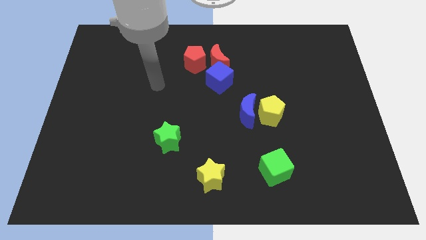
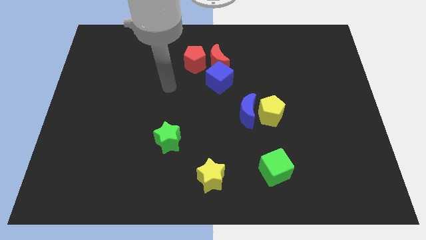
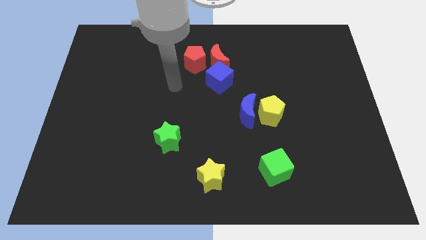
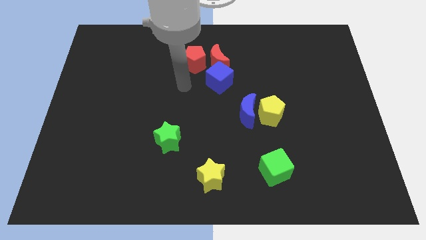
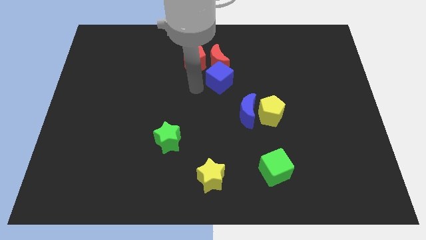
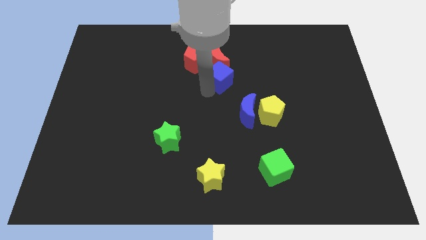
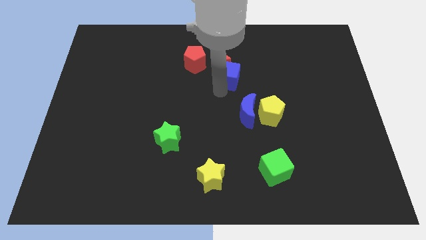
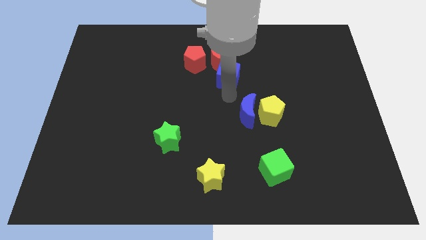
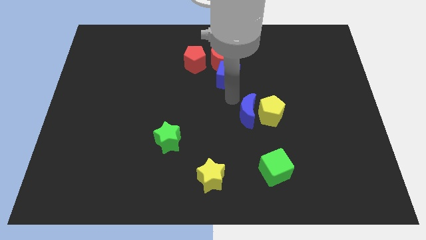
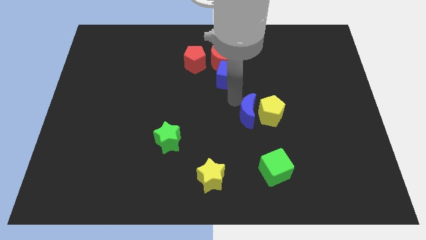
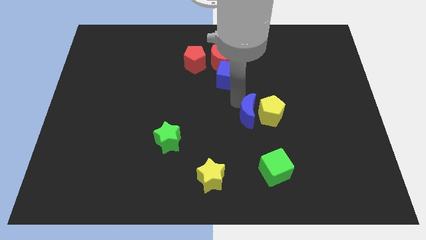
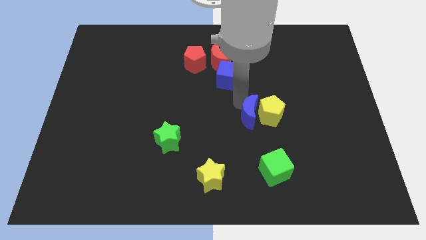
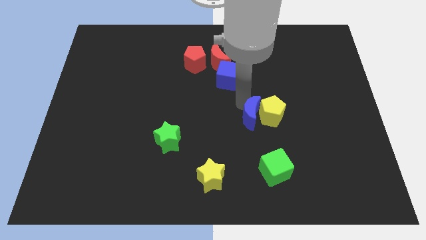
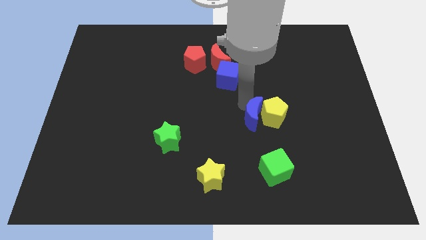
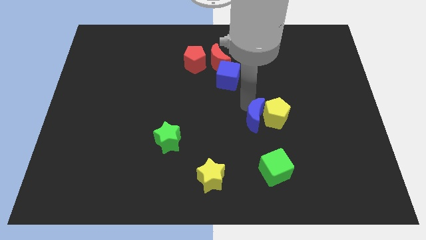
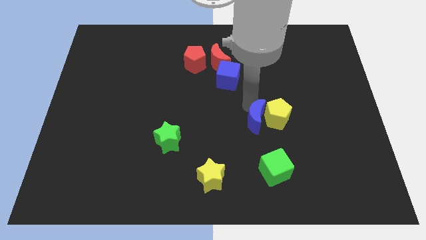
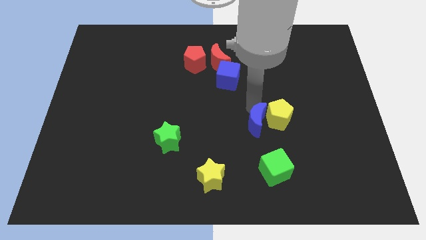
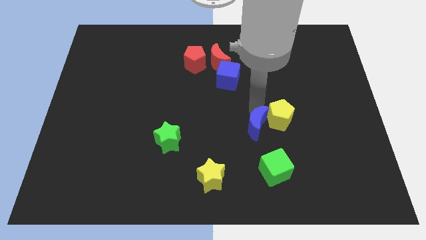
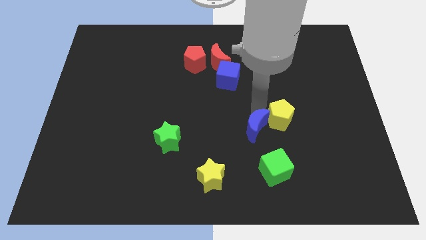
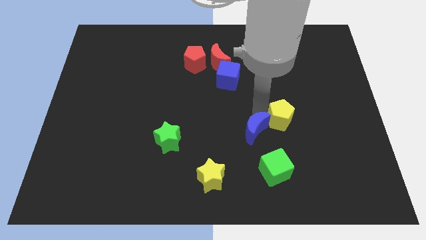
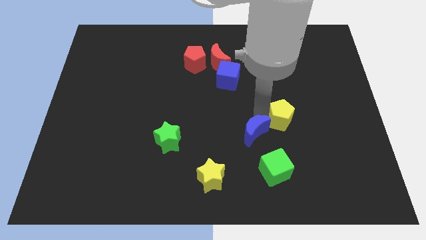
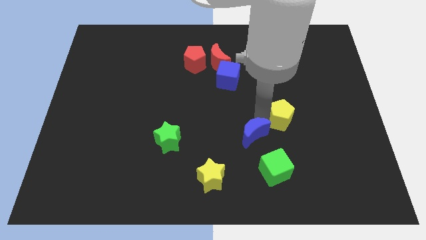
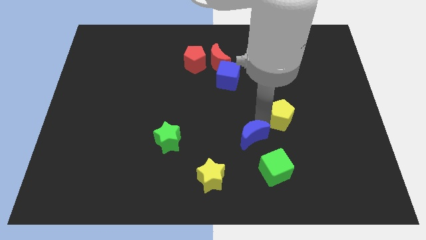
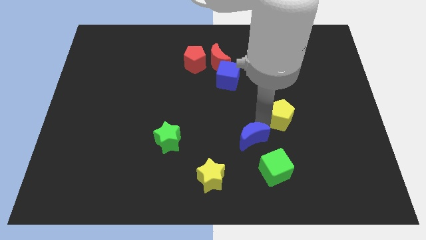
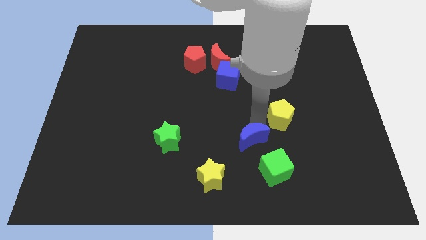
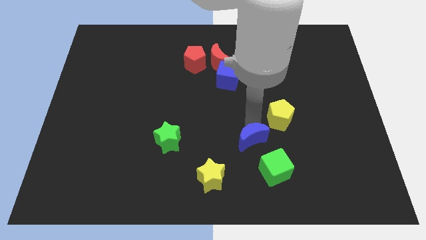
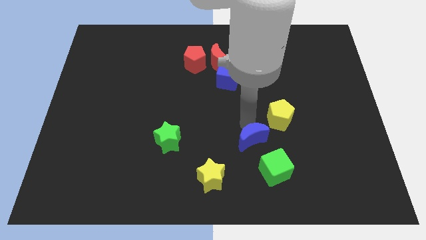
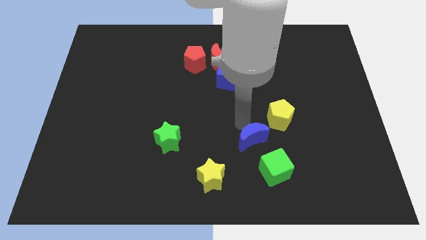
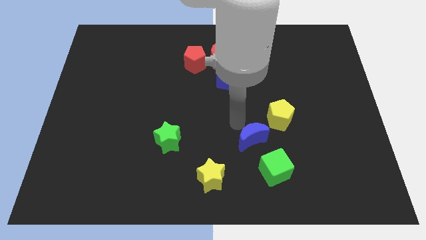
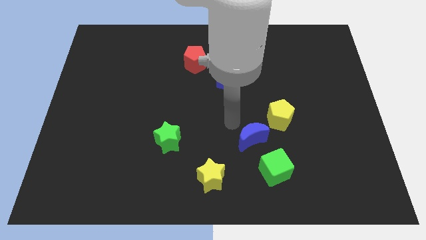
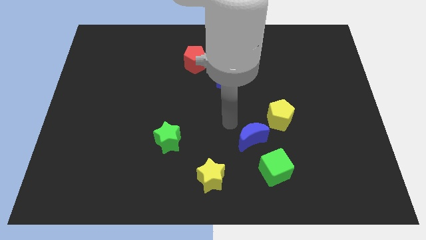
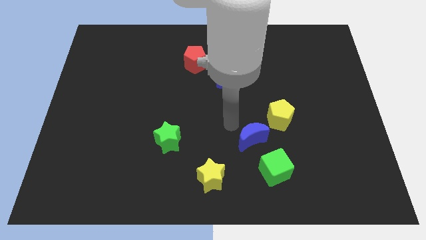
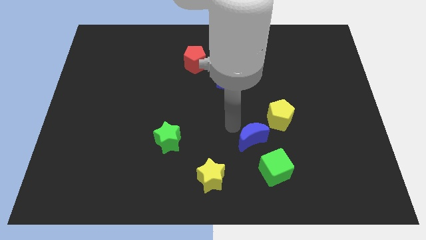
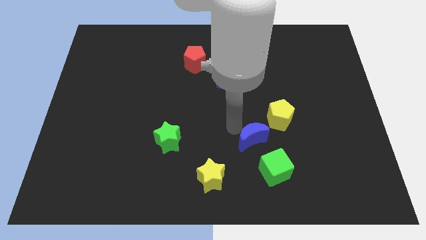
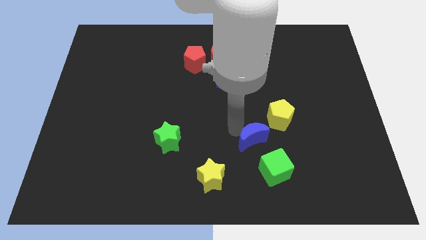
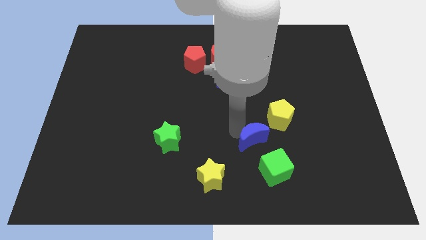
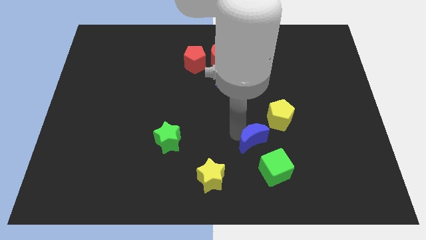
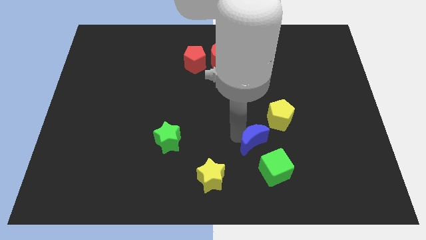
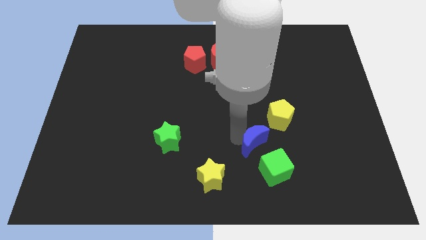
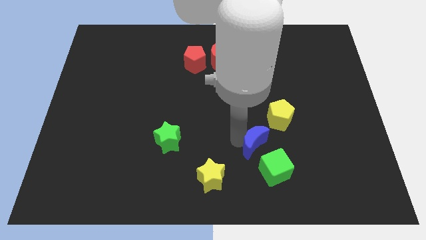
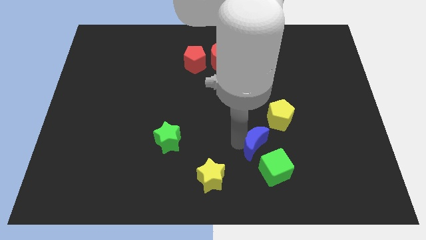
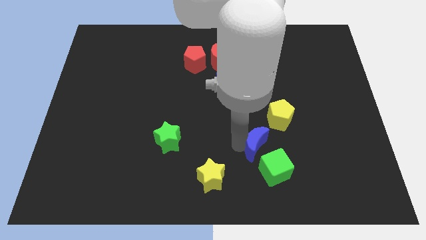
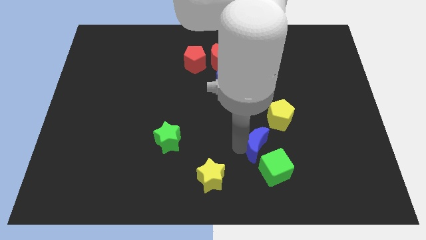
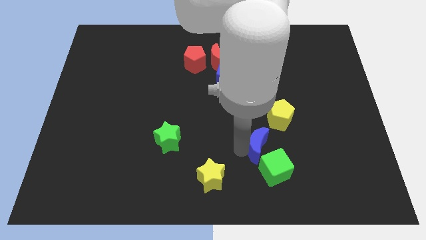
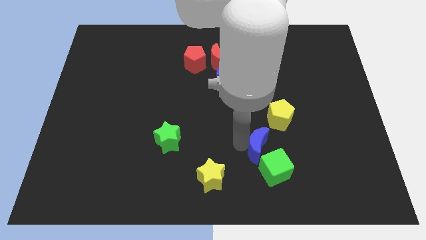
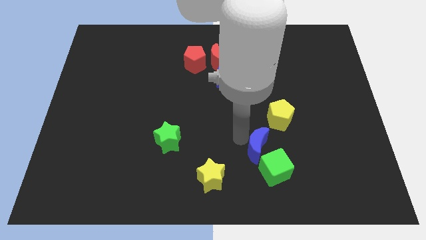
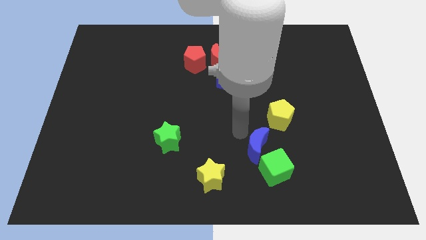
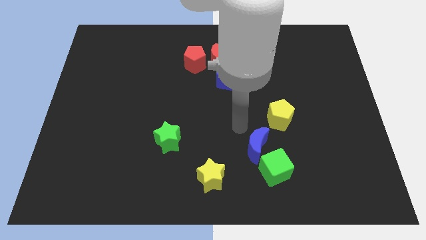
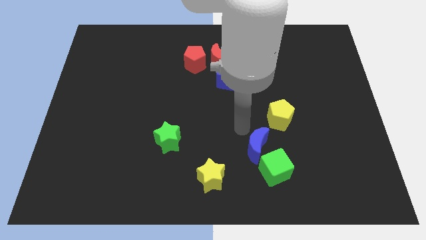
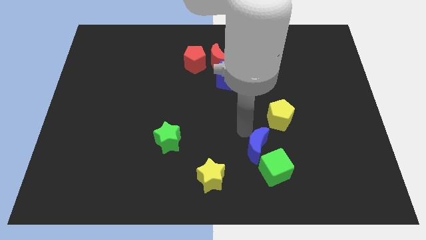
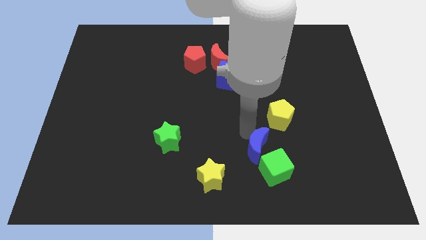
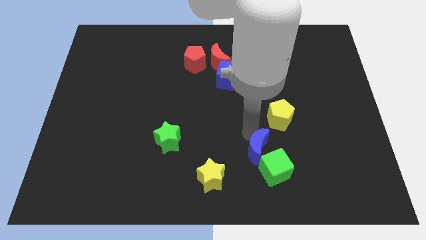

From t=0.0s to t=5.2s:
put the blue moon towards the green cube

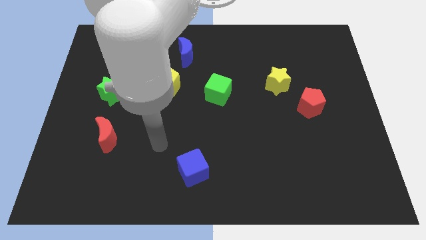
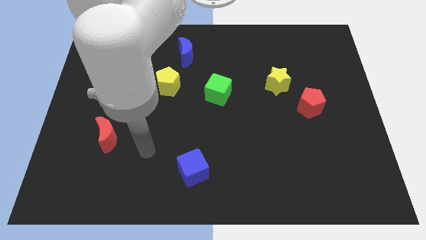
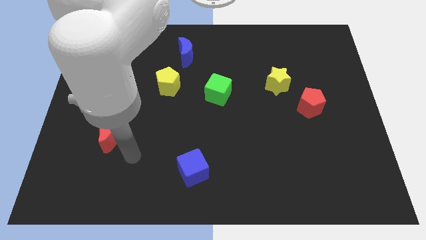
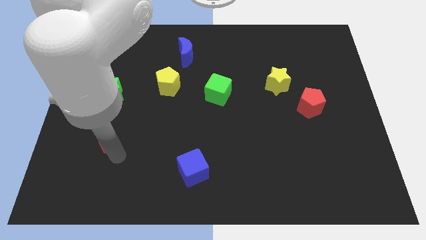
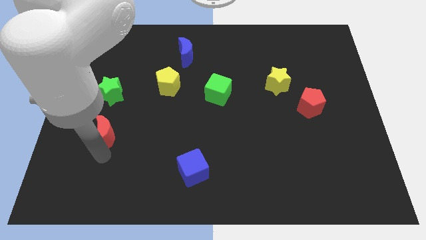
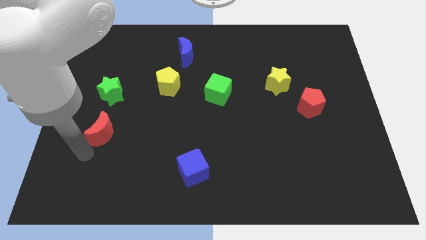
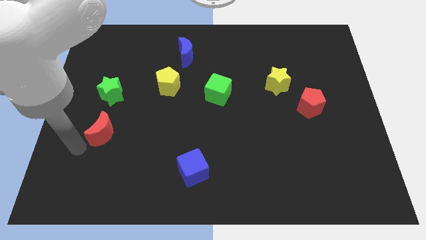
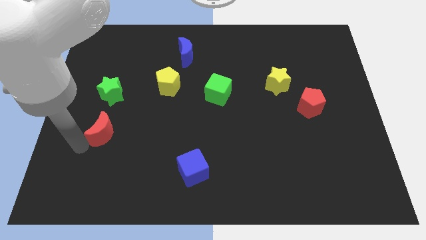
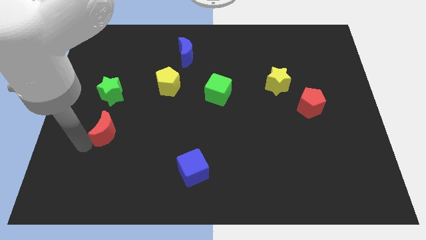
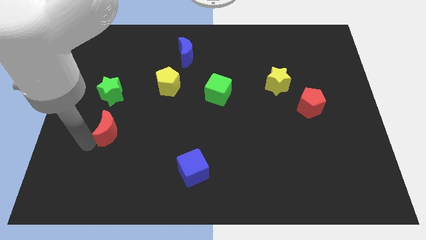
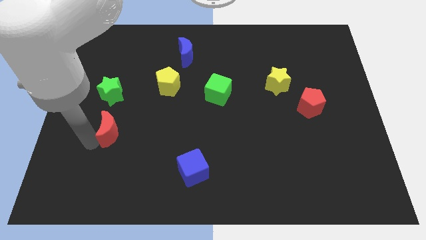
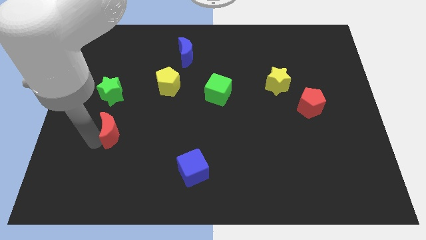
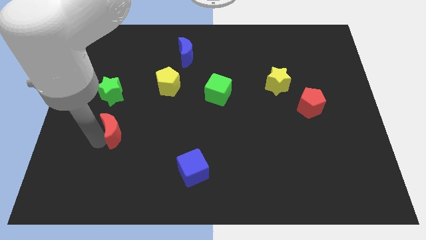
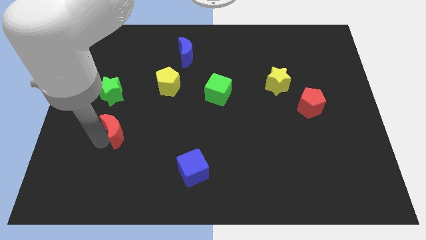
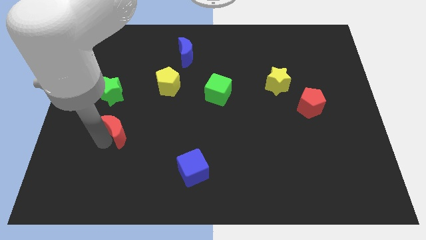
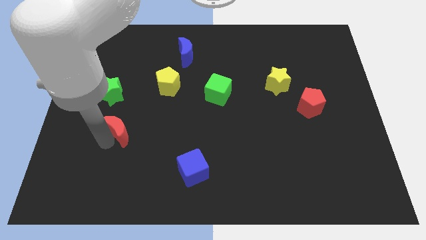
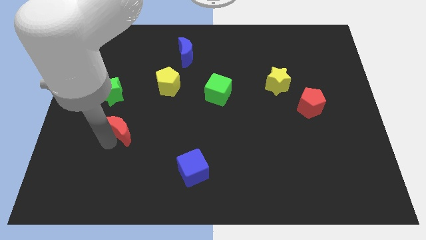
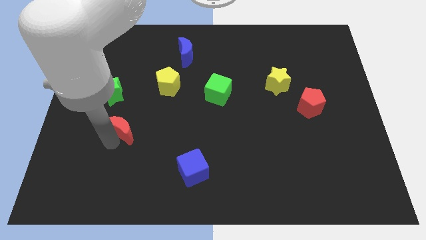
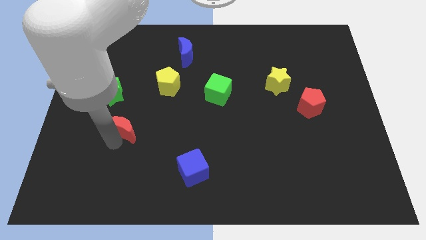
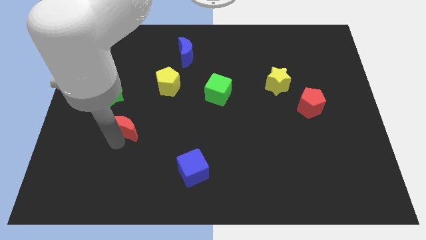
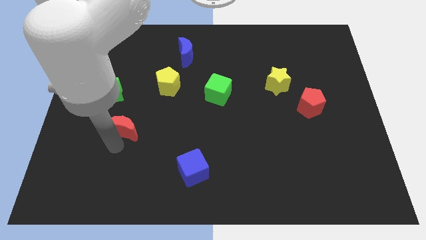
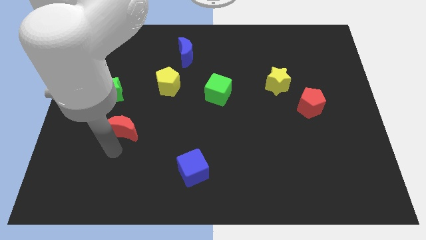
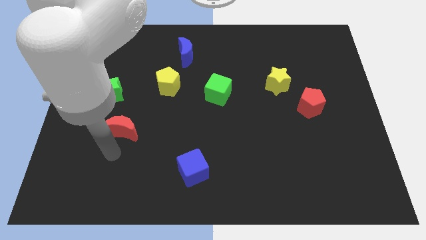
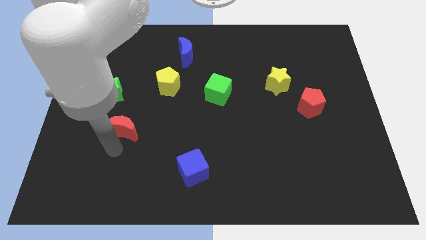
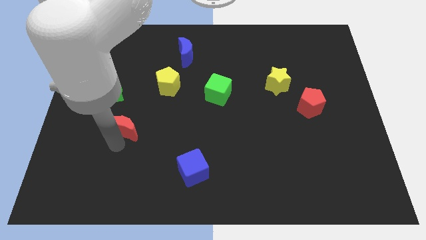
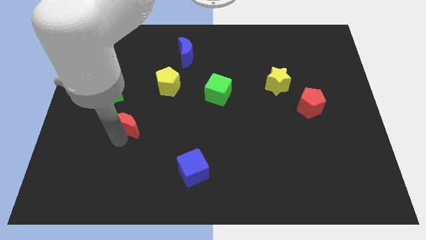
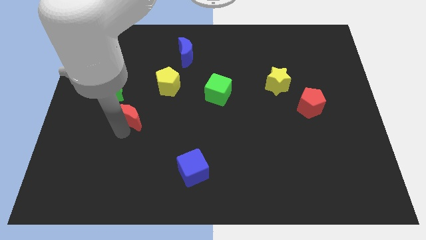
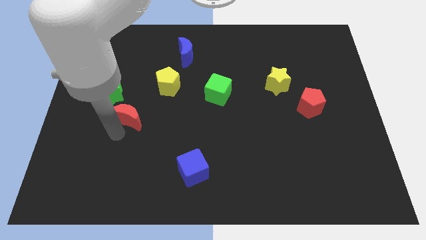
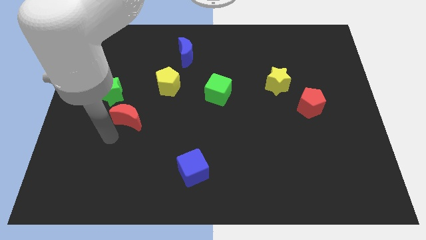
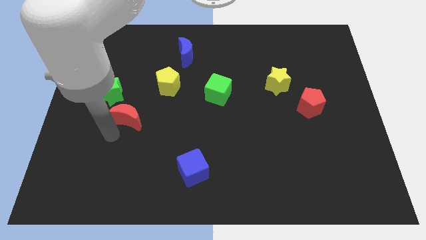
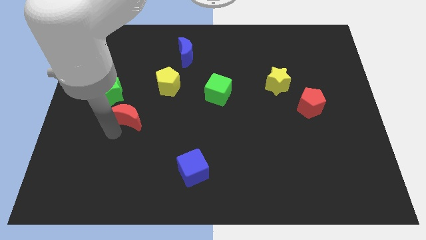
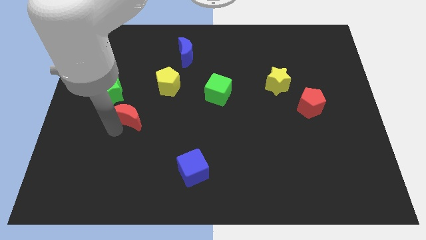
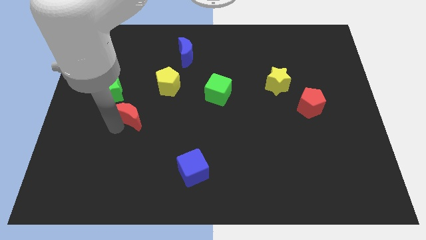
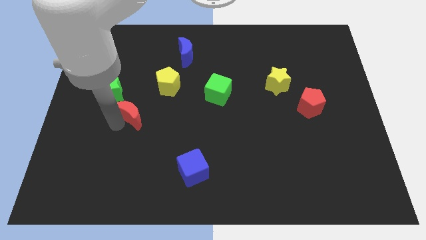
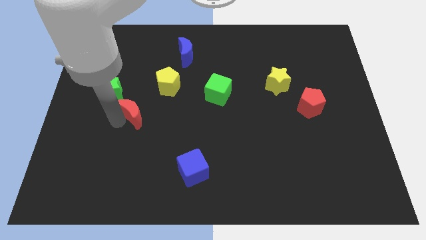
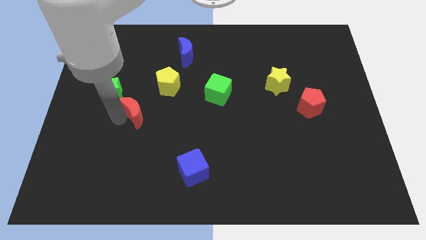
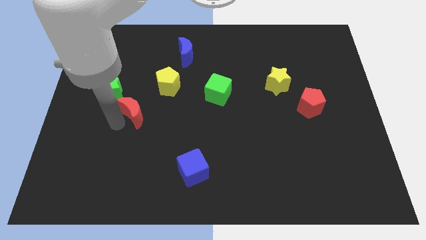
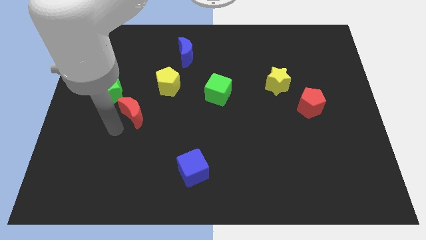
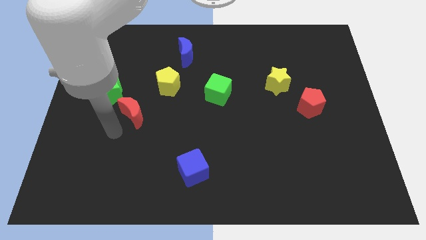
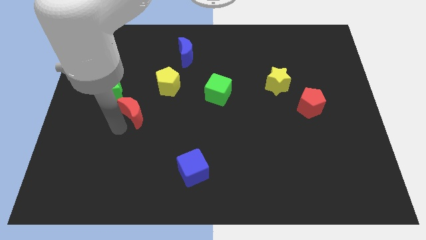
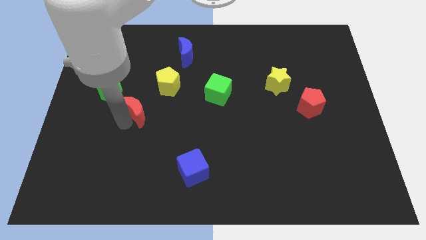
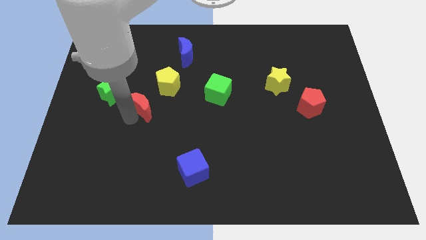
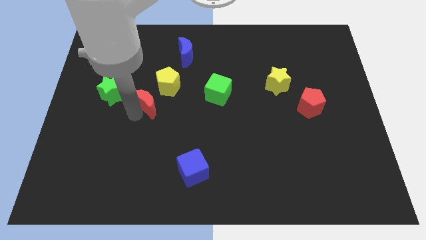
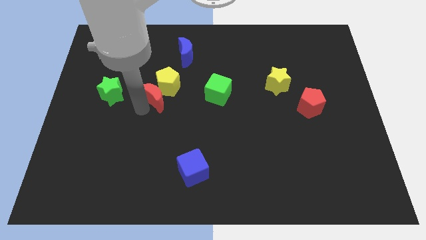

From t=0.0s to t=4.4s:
slide the red moon towards the yellow pentagon
